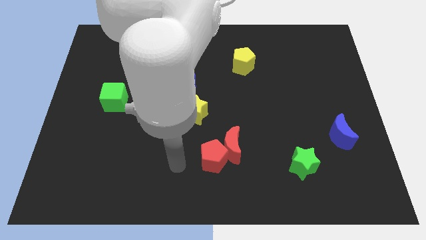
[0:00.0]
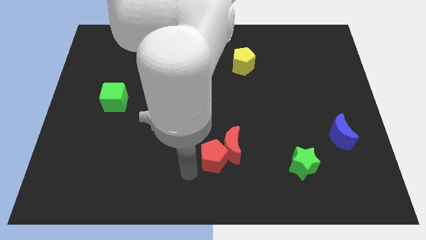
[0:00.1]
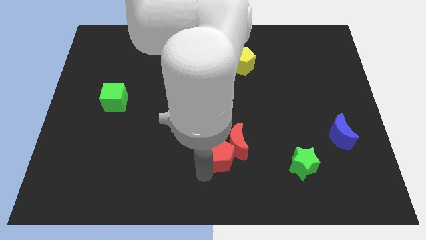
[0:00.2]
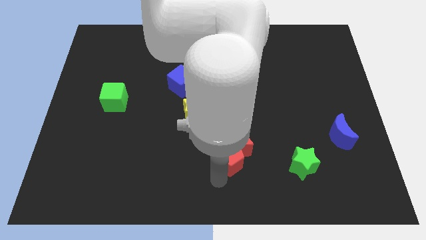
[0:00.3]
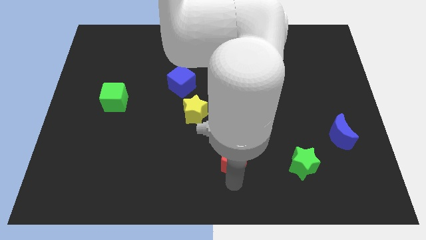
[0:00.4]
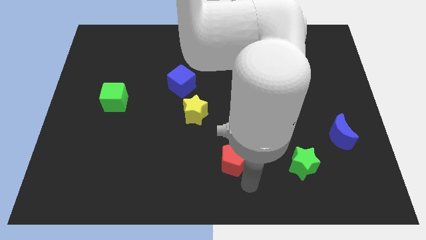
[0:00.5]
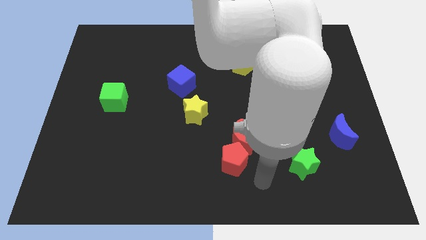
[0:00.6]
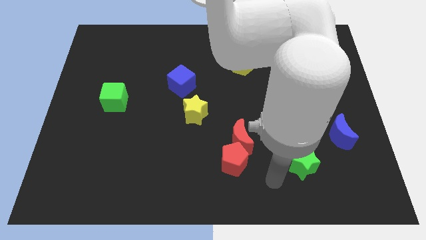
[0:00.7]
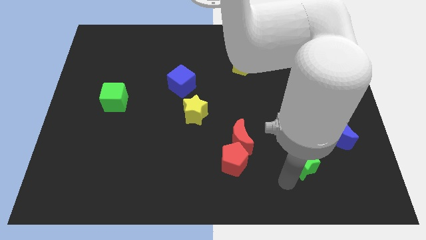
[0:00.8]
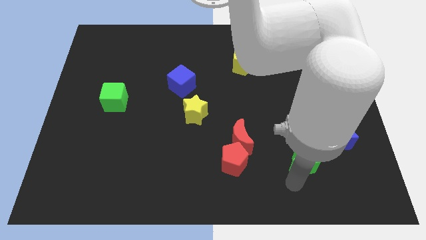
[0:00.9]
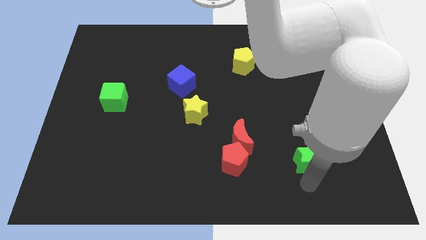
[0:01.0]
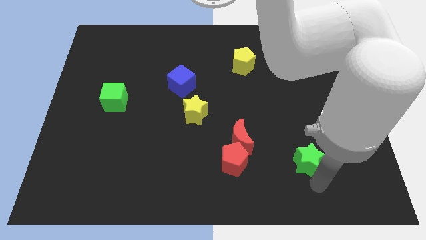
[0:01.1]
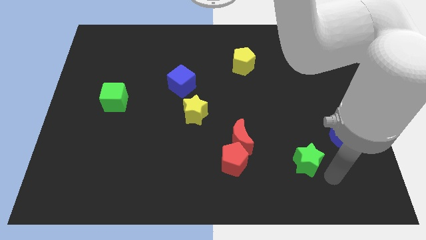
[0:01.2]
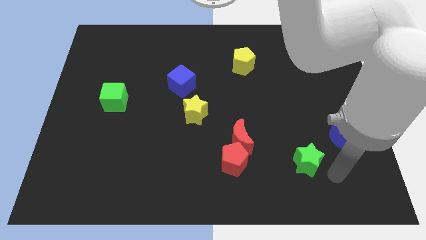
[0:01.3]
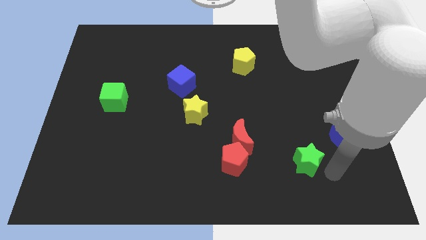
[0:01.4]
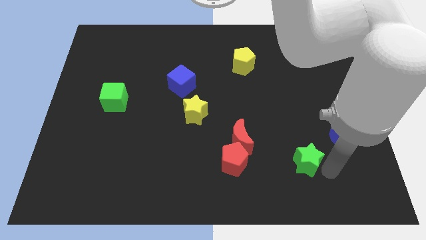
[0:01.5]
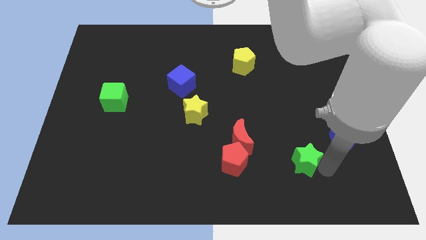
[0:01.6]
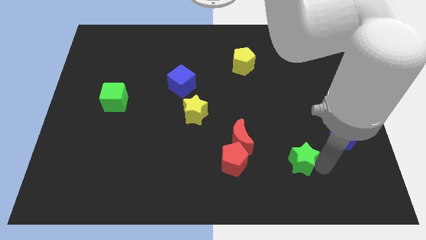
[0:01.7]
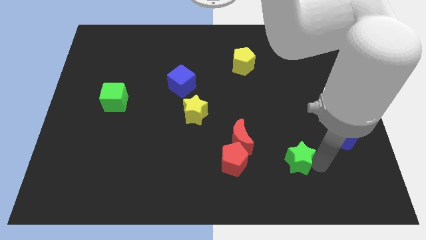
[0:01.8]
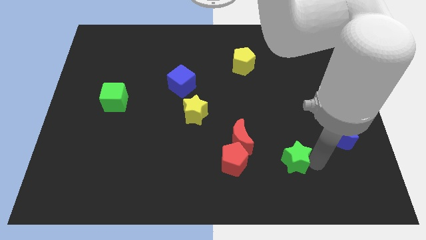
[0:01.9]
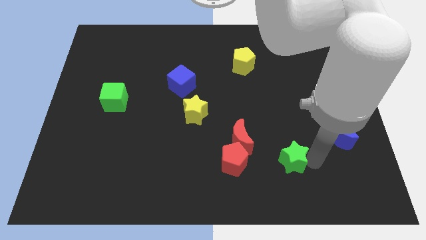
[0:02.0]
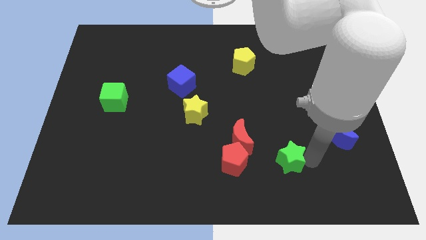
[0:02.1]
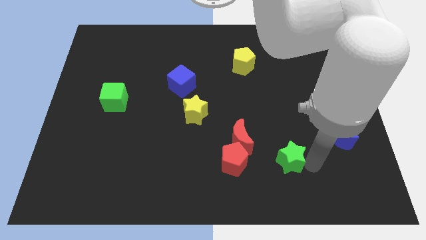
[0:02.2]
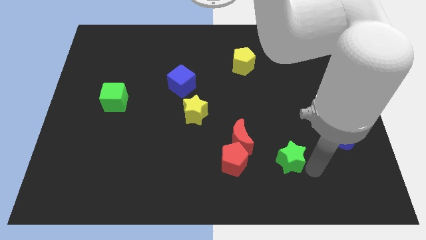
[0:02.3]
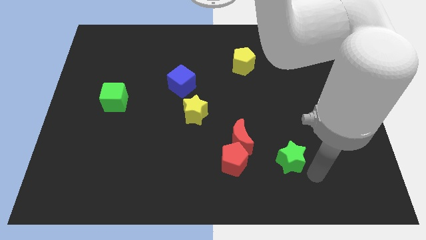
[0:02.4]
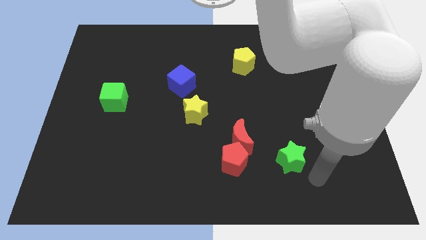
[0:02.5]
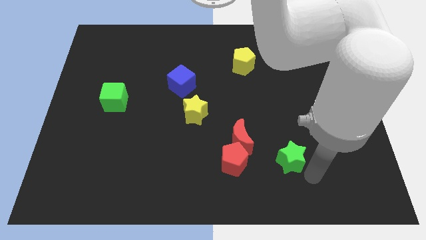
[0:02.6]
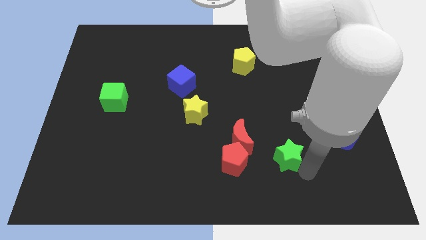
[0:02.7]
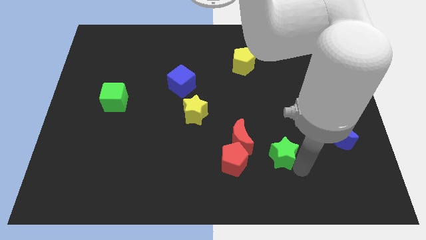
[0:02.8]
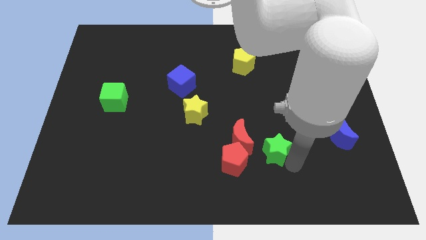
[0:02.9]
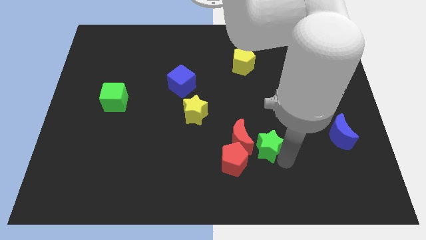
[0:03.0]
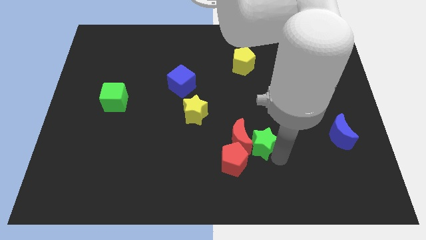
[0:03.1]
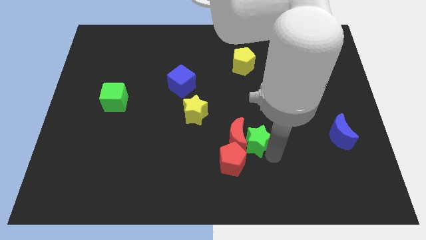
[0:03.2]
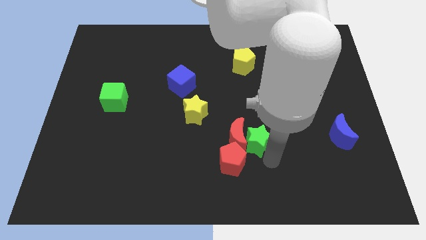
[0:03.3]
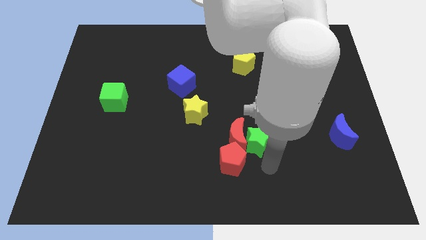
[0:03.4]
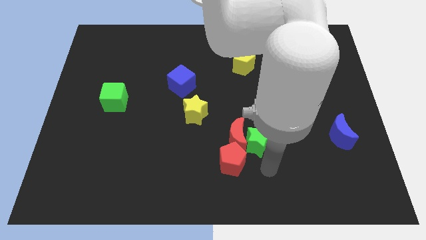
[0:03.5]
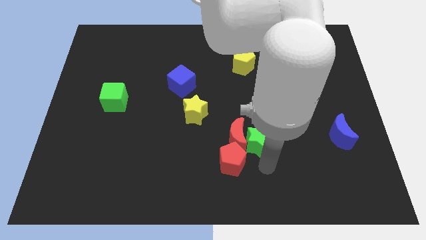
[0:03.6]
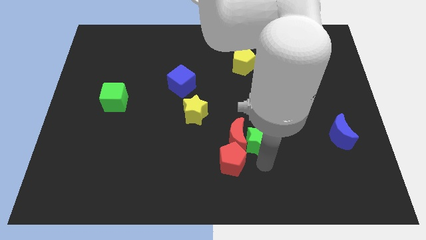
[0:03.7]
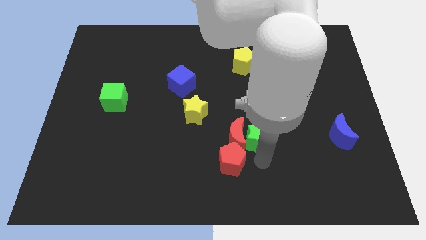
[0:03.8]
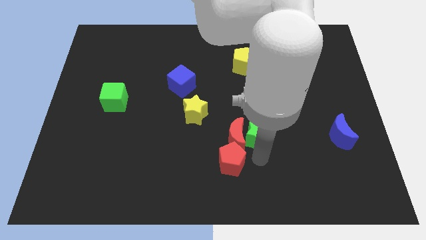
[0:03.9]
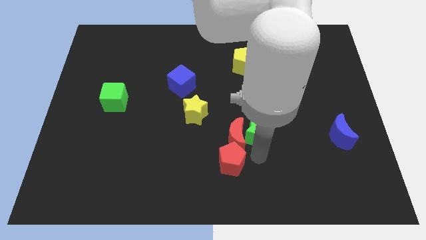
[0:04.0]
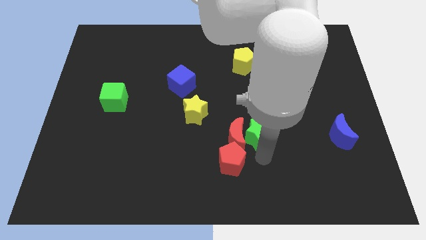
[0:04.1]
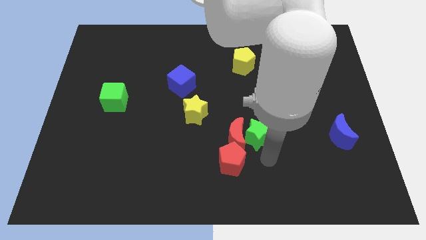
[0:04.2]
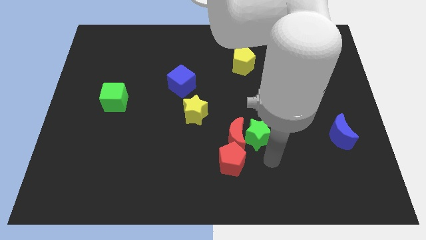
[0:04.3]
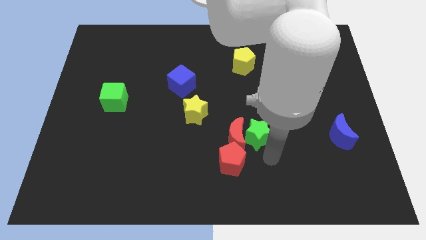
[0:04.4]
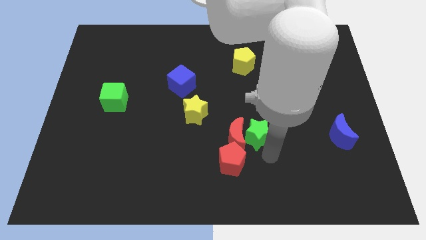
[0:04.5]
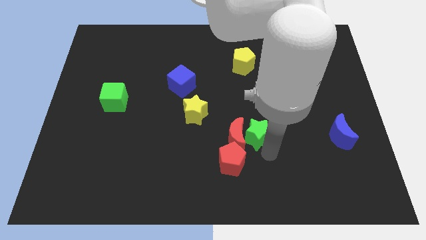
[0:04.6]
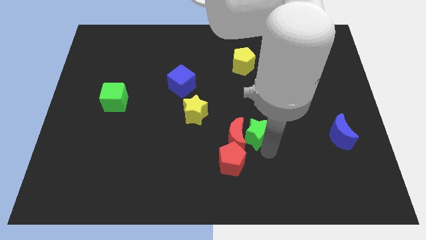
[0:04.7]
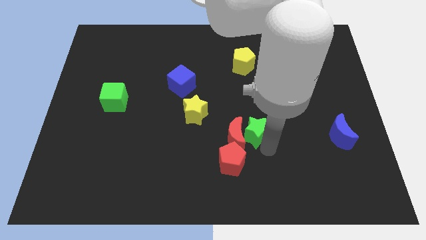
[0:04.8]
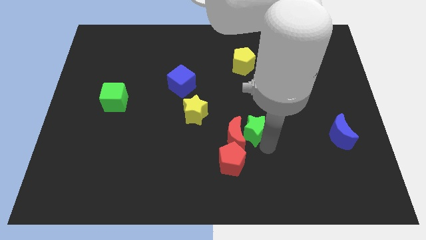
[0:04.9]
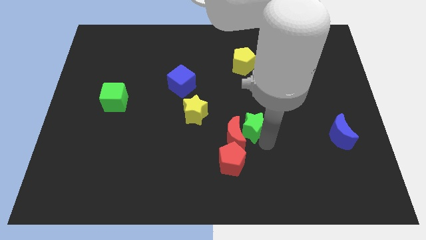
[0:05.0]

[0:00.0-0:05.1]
slide the green star to the middle
